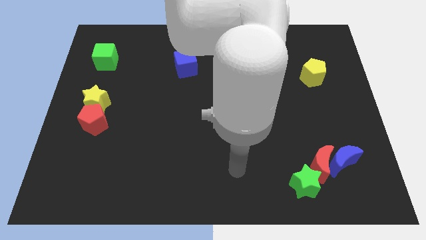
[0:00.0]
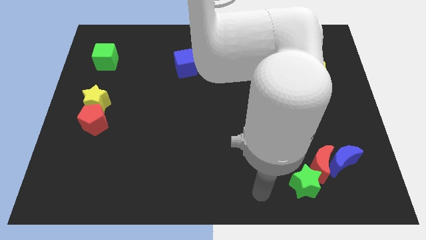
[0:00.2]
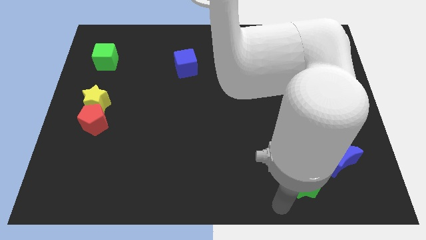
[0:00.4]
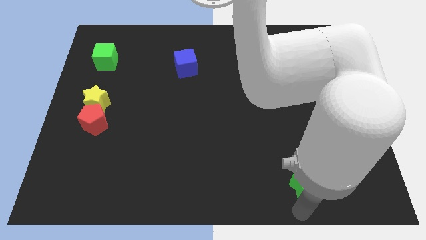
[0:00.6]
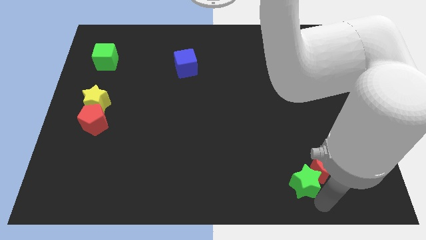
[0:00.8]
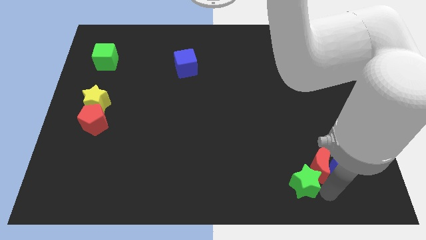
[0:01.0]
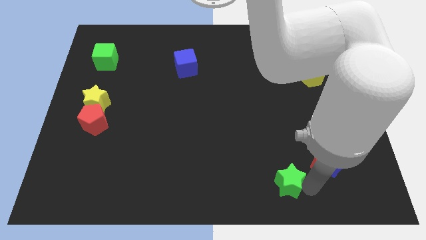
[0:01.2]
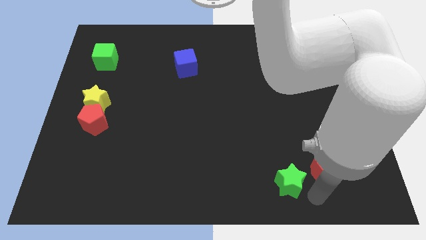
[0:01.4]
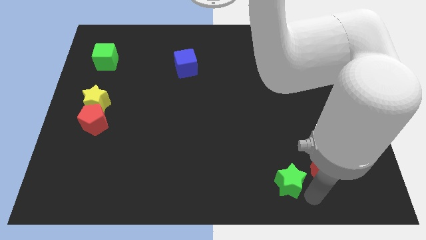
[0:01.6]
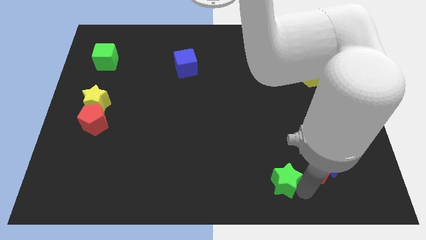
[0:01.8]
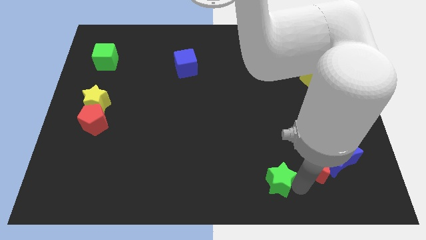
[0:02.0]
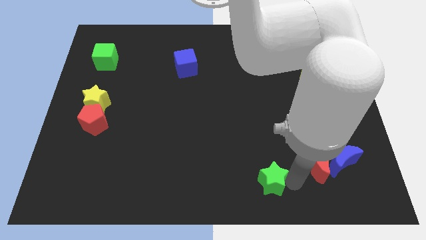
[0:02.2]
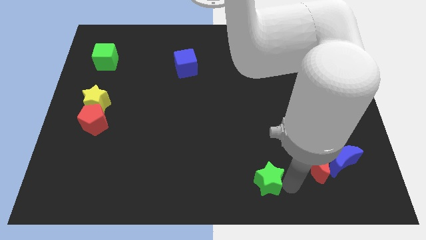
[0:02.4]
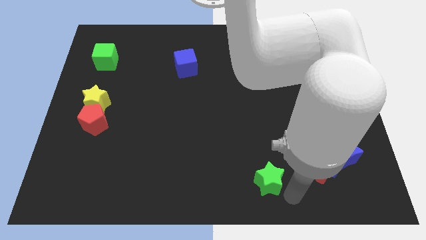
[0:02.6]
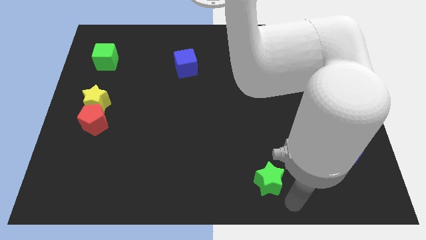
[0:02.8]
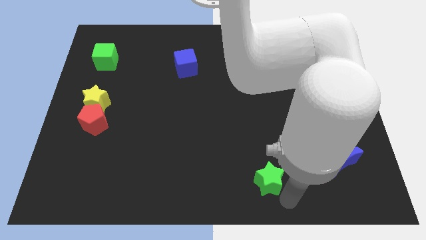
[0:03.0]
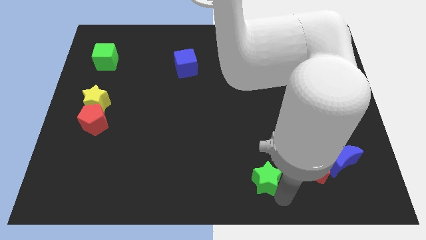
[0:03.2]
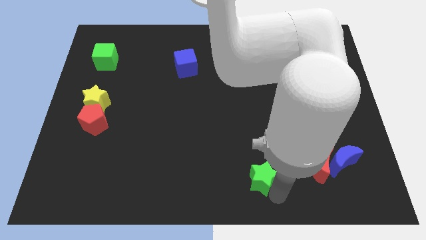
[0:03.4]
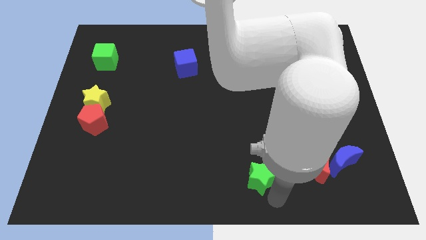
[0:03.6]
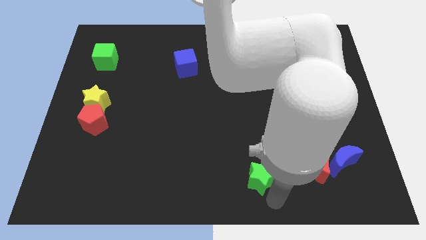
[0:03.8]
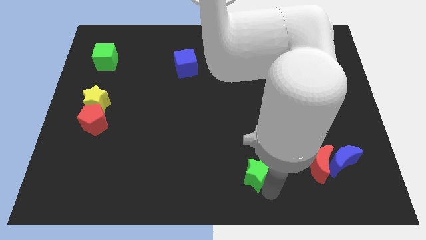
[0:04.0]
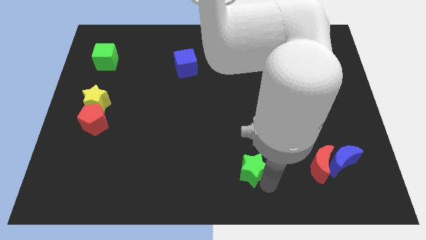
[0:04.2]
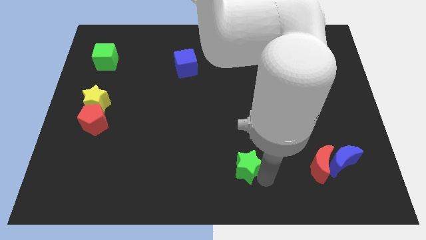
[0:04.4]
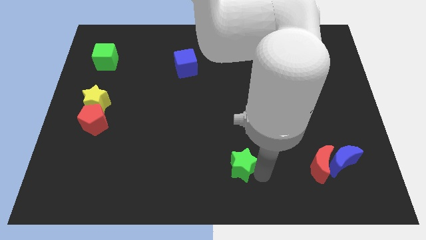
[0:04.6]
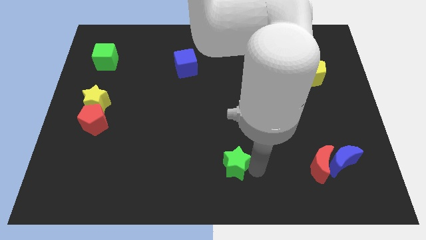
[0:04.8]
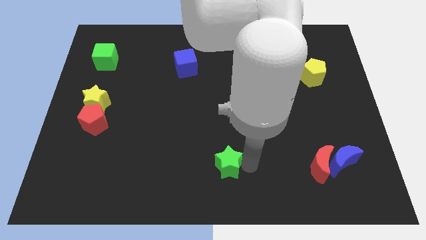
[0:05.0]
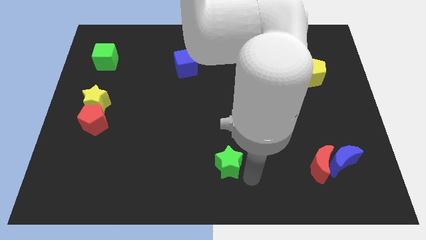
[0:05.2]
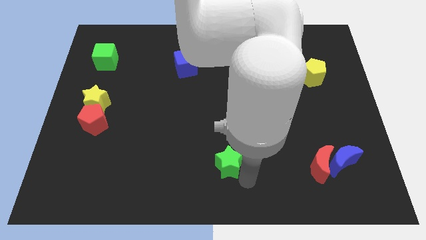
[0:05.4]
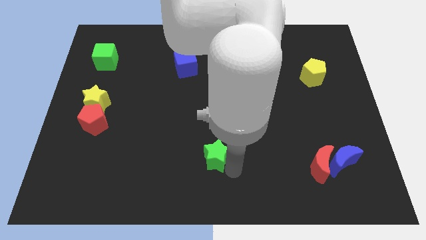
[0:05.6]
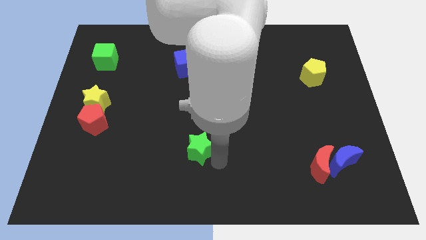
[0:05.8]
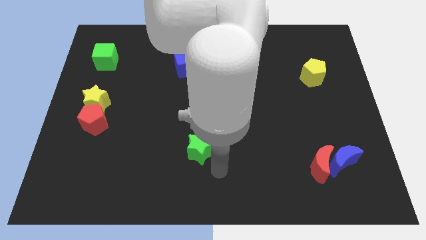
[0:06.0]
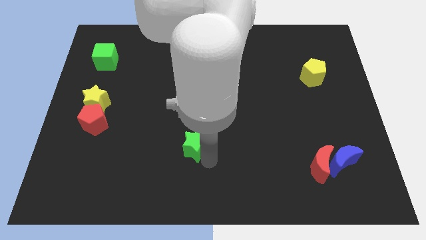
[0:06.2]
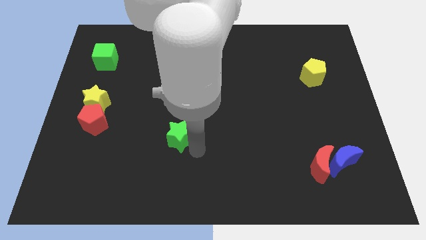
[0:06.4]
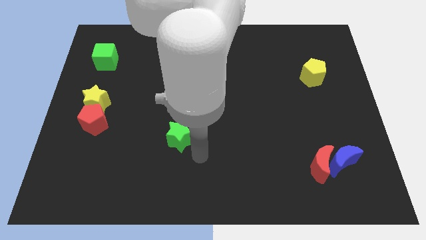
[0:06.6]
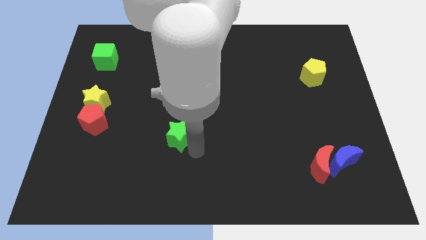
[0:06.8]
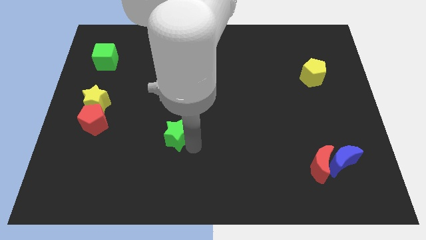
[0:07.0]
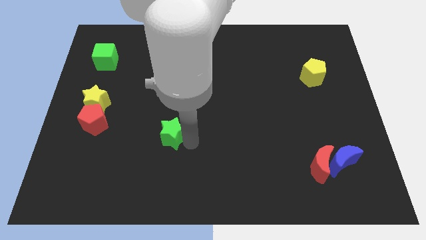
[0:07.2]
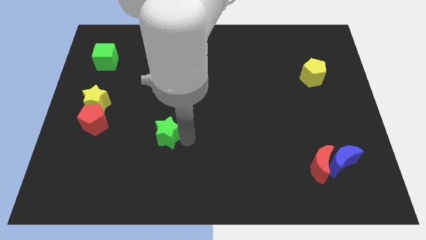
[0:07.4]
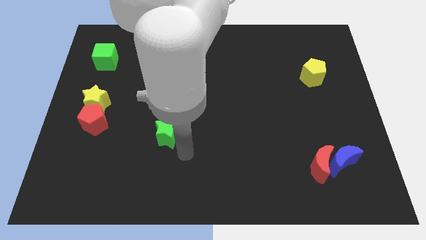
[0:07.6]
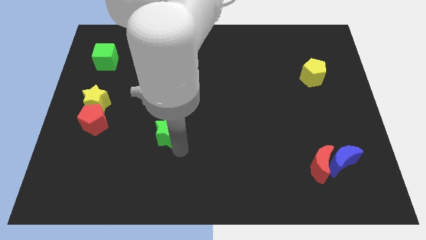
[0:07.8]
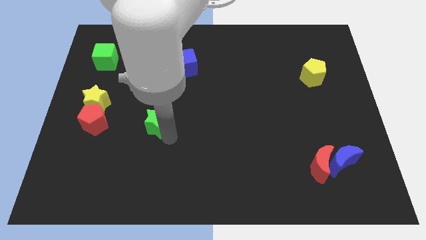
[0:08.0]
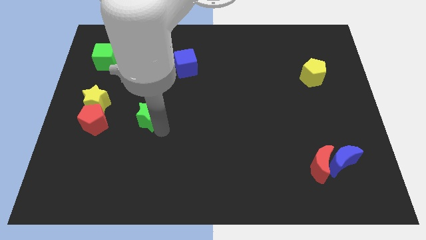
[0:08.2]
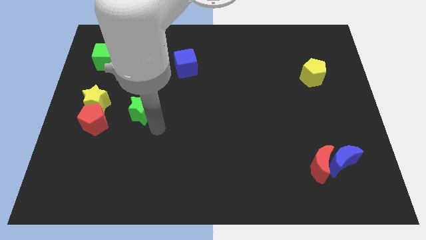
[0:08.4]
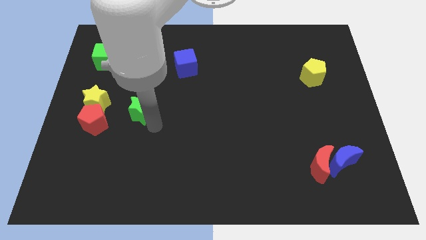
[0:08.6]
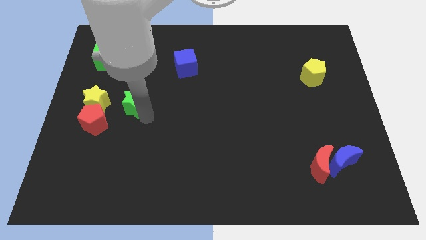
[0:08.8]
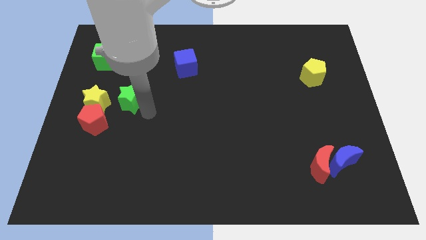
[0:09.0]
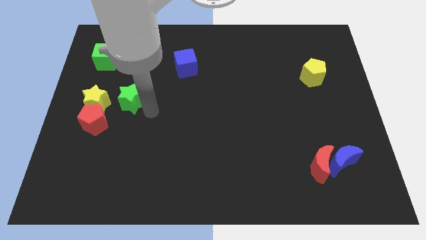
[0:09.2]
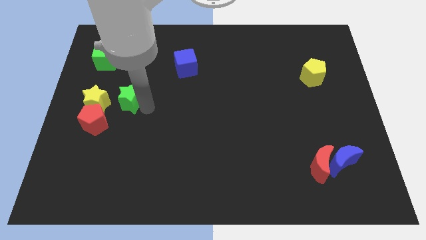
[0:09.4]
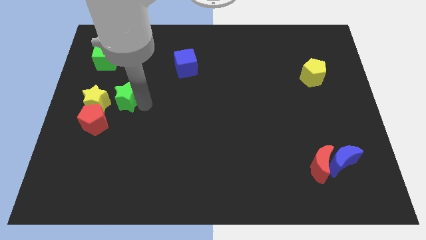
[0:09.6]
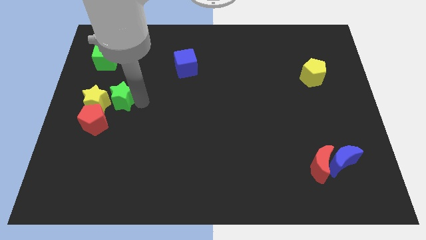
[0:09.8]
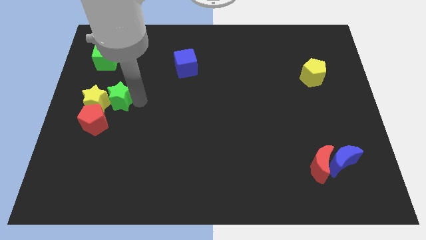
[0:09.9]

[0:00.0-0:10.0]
put the green star to the top of the red pentagon

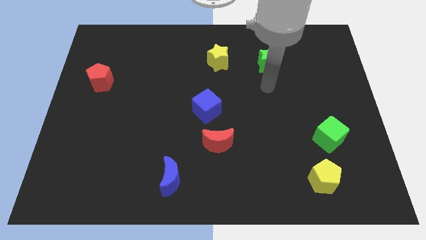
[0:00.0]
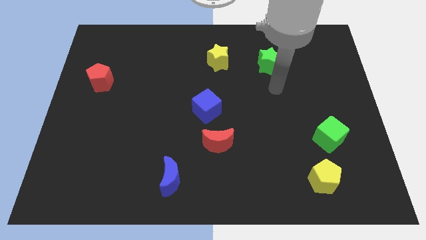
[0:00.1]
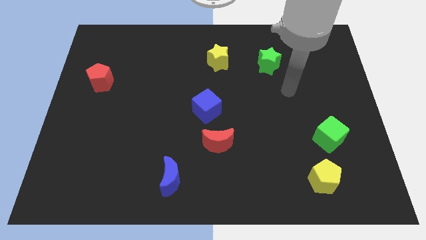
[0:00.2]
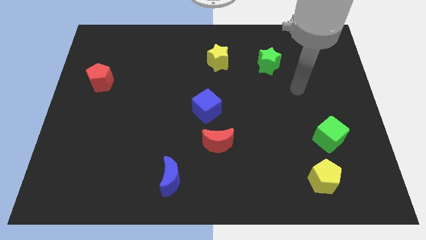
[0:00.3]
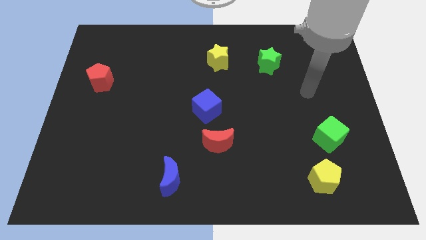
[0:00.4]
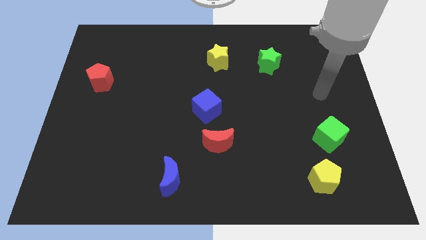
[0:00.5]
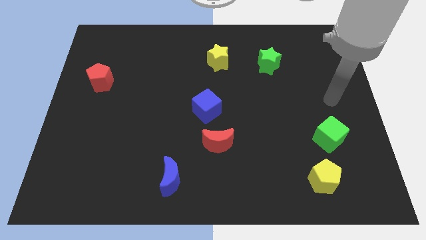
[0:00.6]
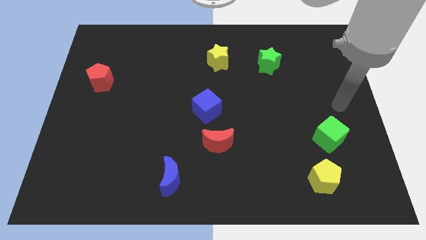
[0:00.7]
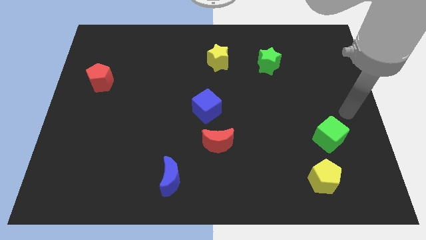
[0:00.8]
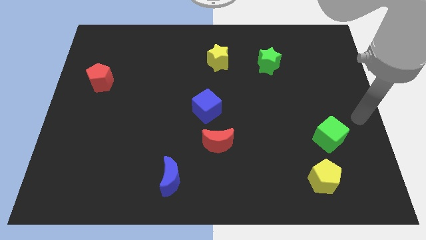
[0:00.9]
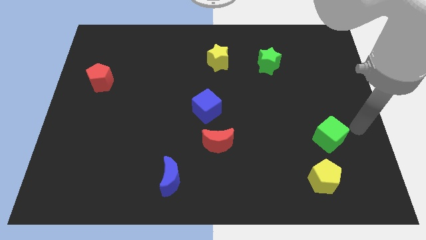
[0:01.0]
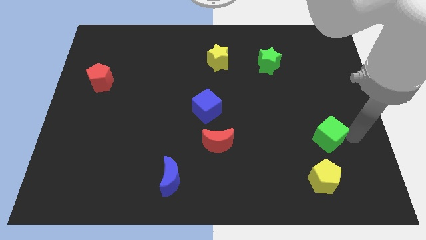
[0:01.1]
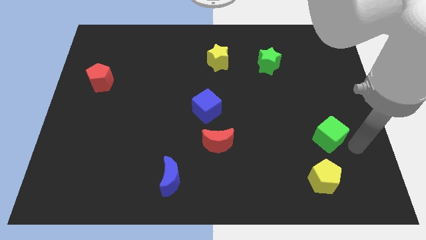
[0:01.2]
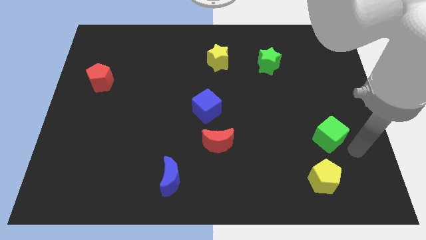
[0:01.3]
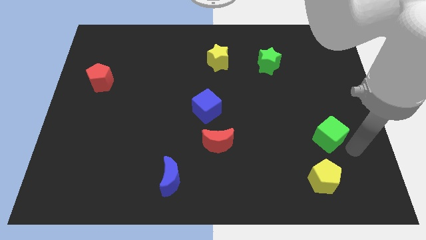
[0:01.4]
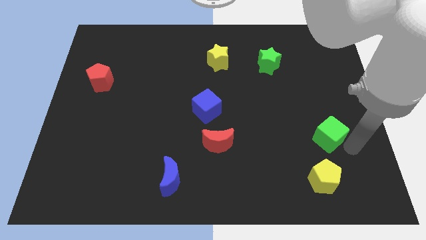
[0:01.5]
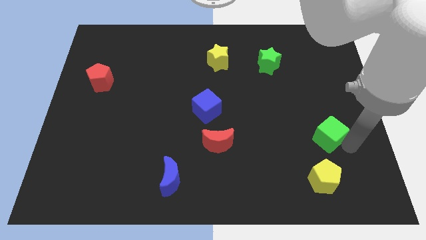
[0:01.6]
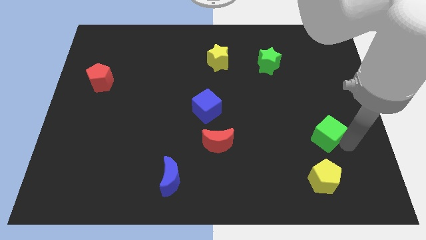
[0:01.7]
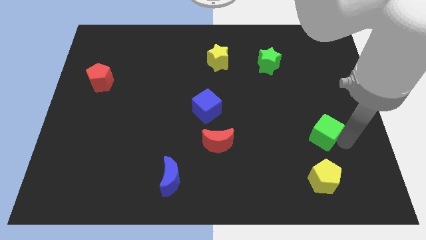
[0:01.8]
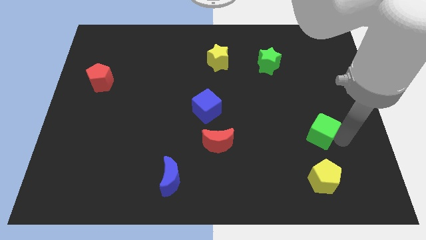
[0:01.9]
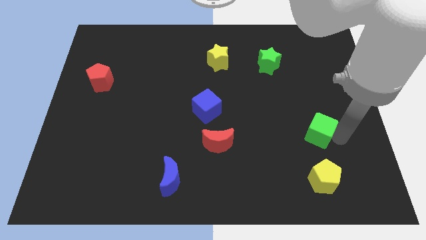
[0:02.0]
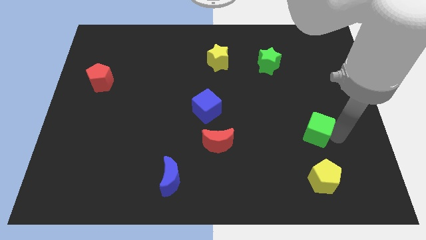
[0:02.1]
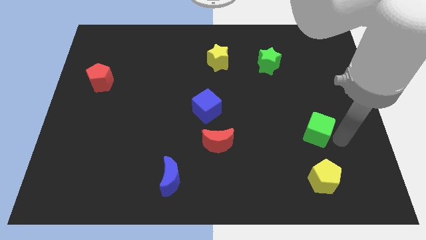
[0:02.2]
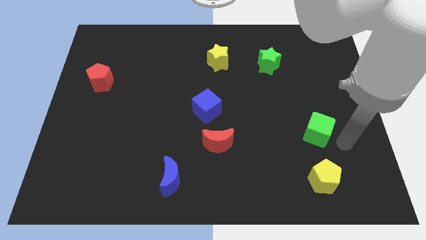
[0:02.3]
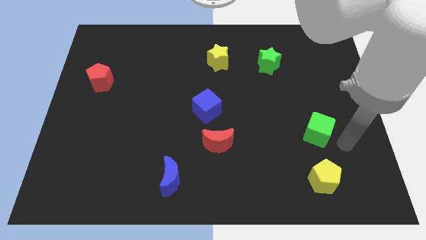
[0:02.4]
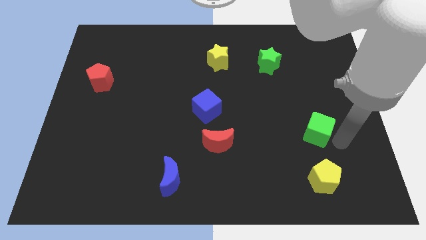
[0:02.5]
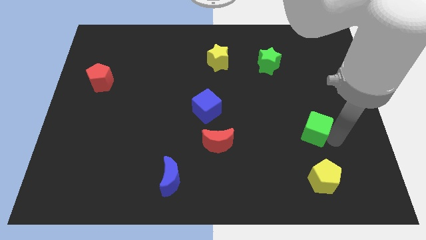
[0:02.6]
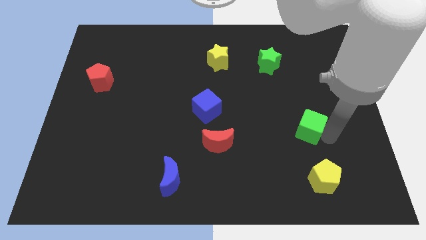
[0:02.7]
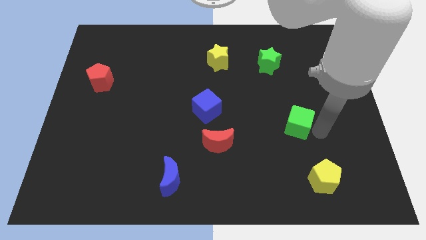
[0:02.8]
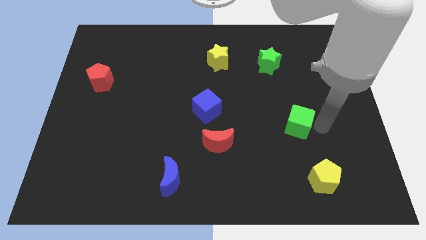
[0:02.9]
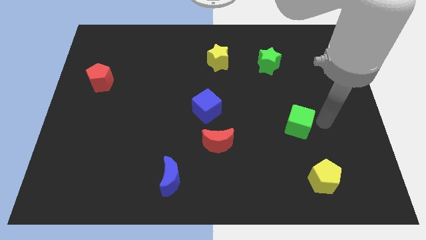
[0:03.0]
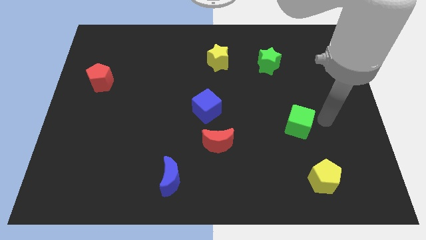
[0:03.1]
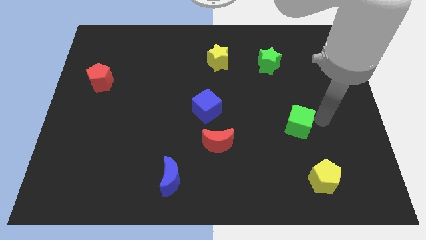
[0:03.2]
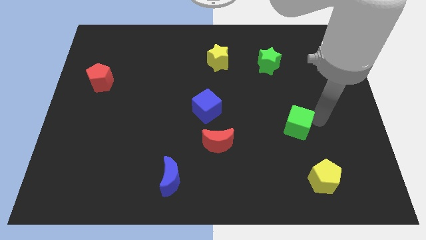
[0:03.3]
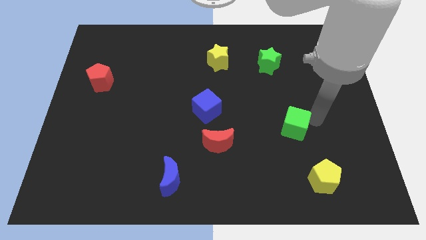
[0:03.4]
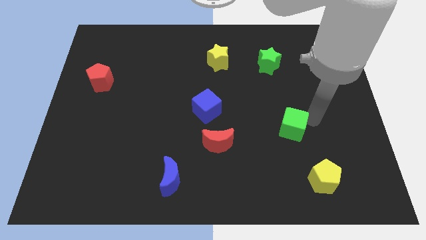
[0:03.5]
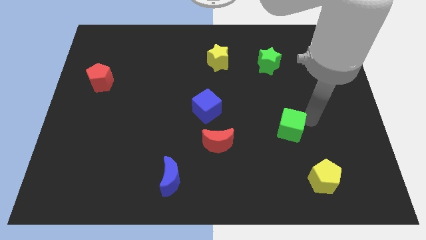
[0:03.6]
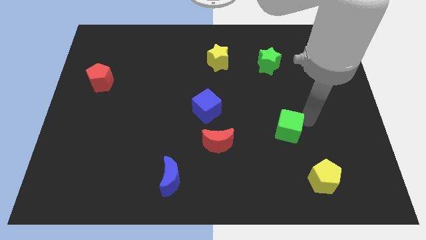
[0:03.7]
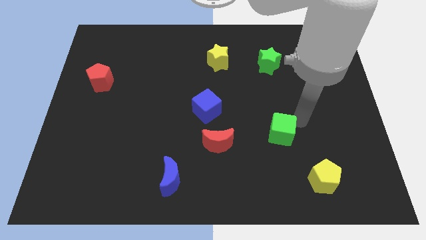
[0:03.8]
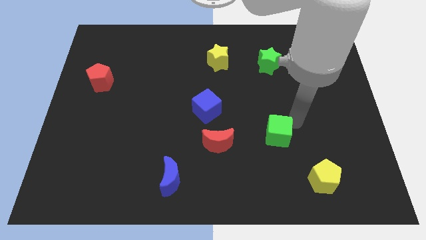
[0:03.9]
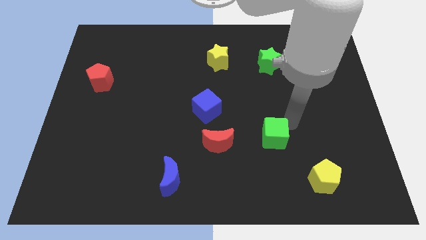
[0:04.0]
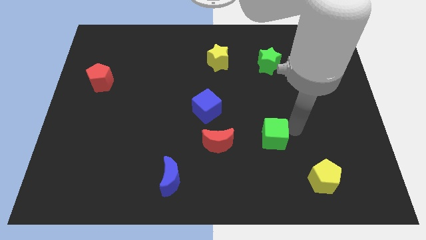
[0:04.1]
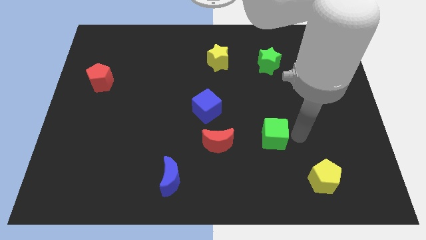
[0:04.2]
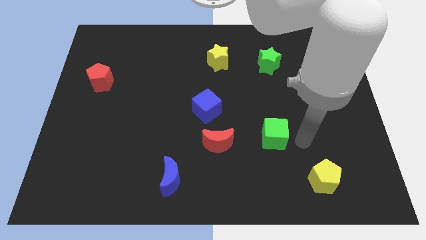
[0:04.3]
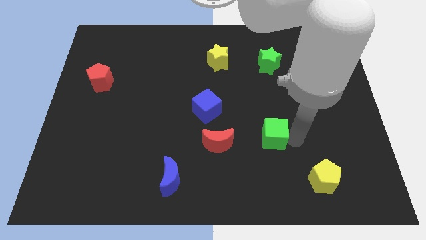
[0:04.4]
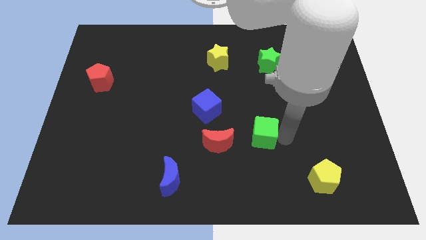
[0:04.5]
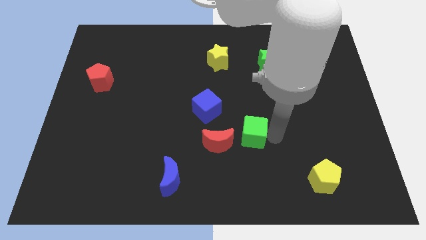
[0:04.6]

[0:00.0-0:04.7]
push the green cube to the bottom right side of the blue cube
